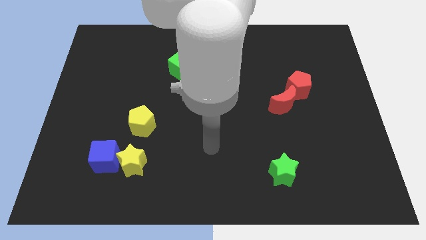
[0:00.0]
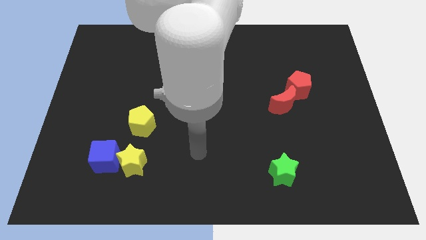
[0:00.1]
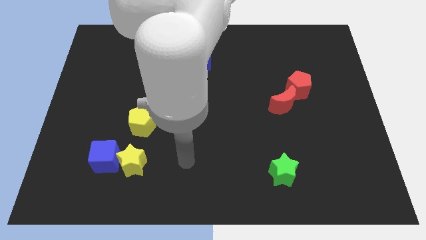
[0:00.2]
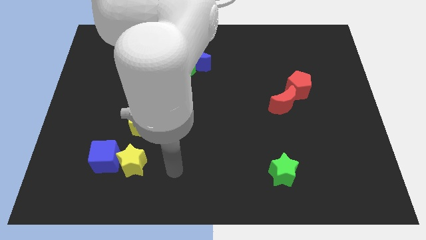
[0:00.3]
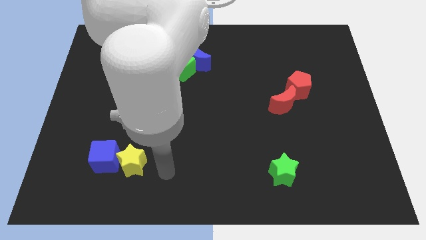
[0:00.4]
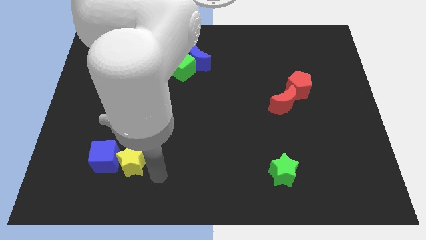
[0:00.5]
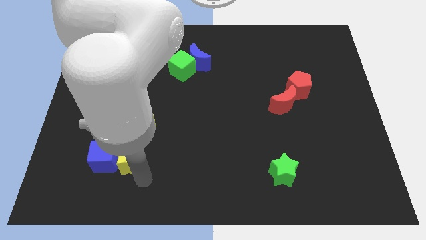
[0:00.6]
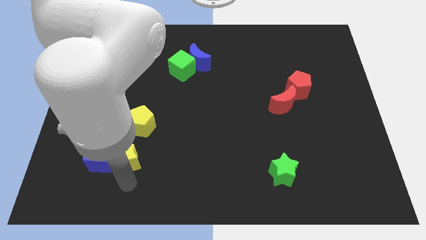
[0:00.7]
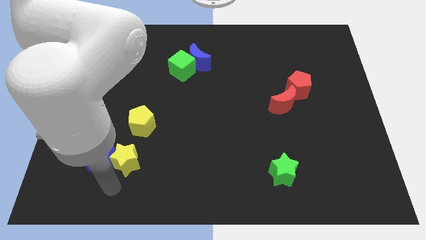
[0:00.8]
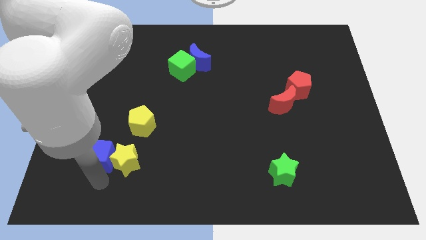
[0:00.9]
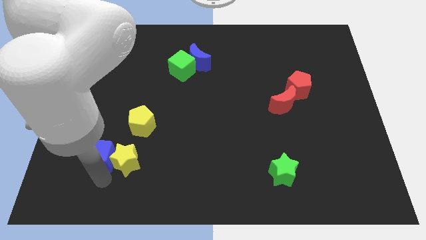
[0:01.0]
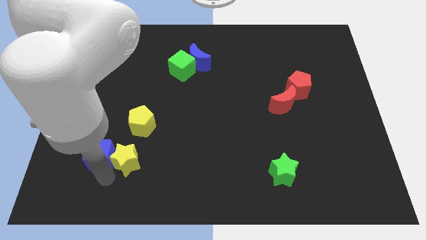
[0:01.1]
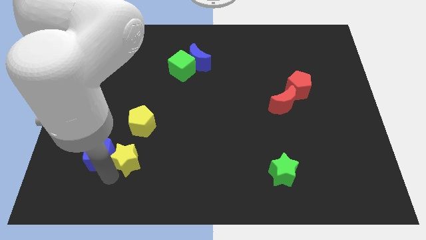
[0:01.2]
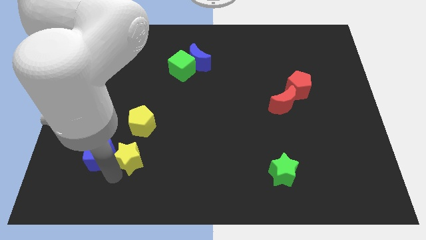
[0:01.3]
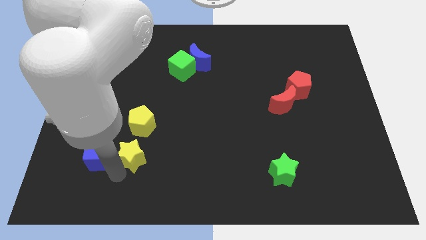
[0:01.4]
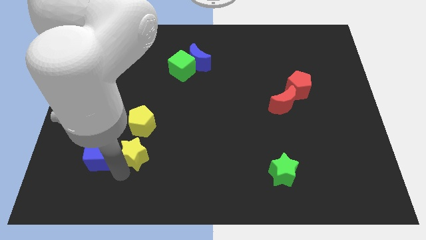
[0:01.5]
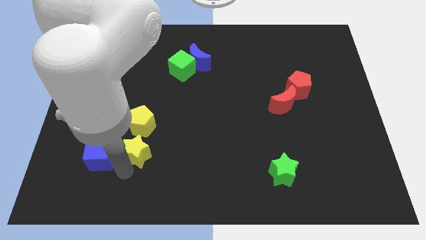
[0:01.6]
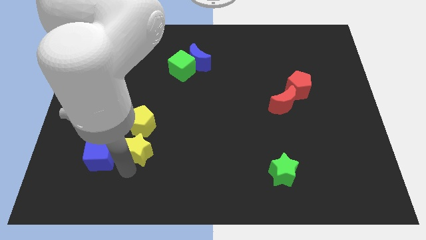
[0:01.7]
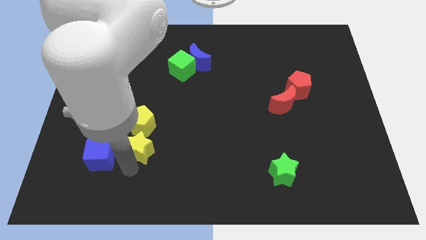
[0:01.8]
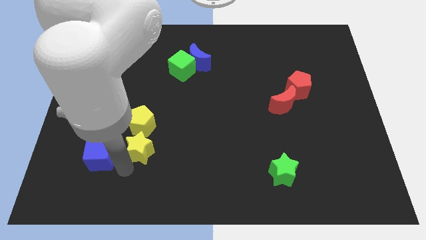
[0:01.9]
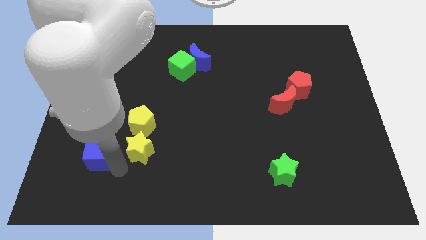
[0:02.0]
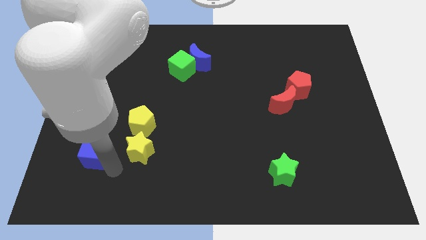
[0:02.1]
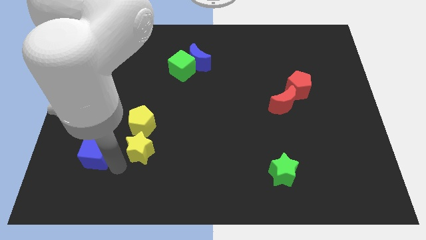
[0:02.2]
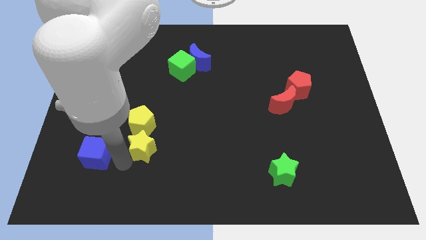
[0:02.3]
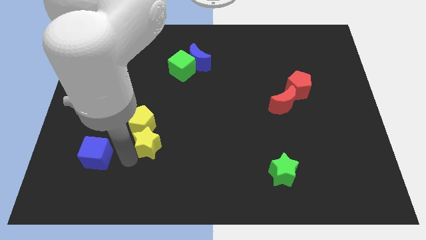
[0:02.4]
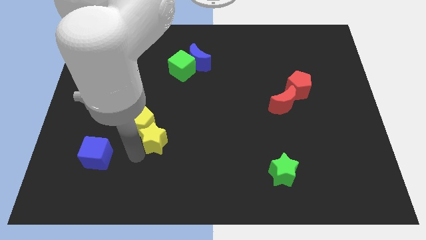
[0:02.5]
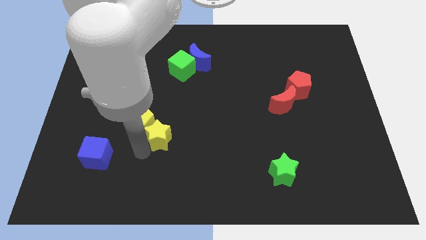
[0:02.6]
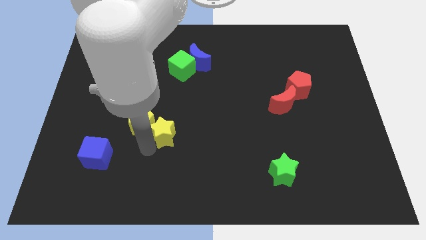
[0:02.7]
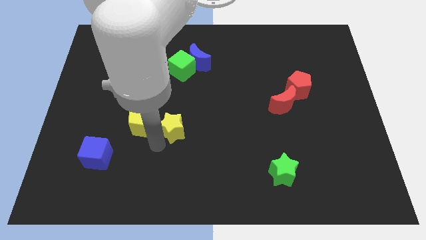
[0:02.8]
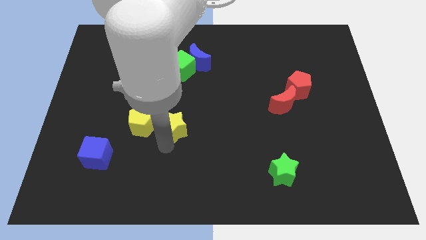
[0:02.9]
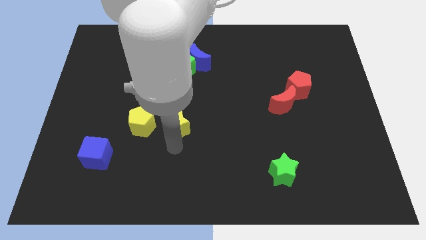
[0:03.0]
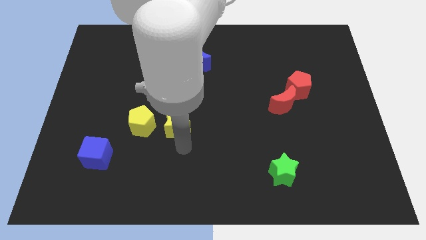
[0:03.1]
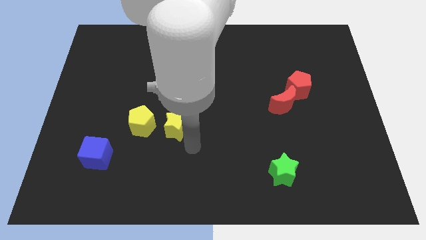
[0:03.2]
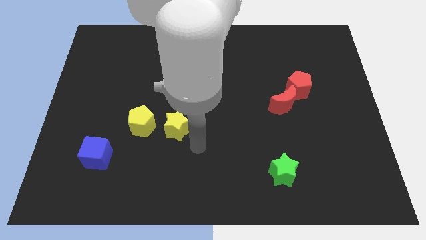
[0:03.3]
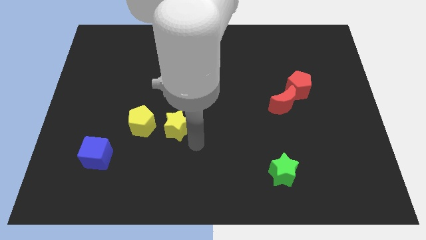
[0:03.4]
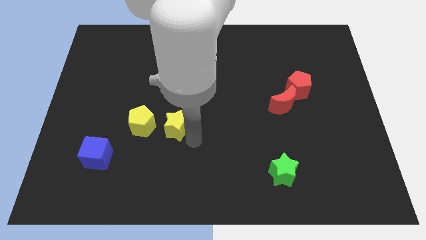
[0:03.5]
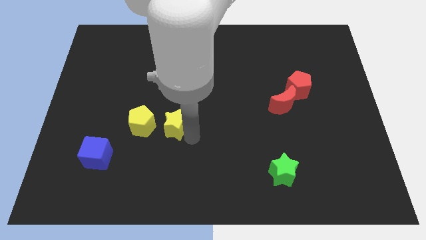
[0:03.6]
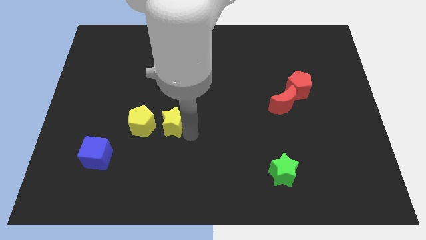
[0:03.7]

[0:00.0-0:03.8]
move the yellow star somewhat up

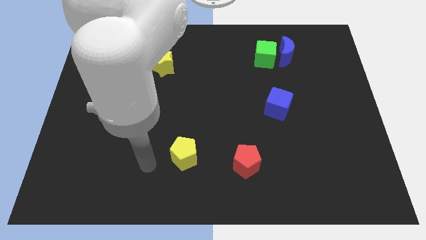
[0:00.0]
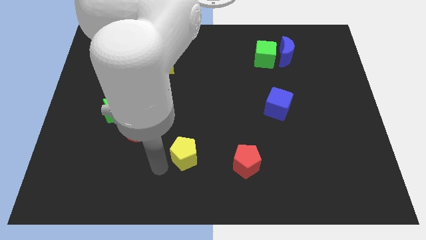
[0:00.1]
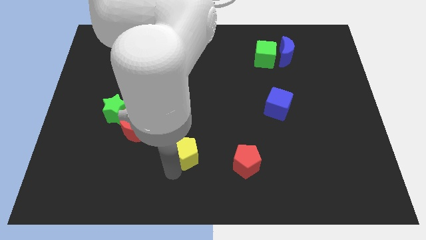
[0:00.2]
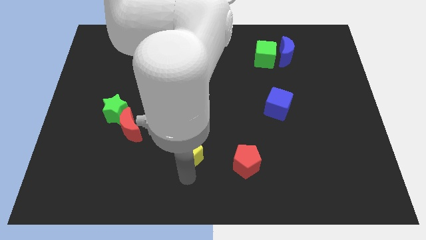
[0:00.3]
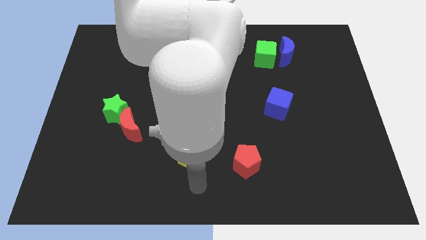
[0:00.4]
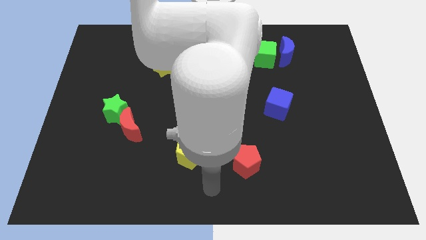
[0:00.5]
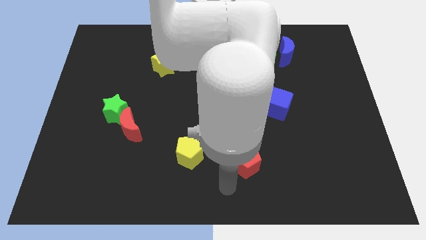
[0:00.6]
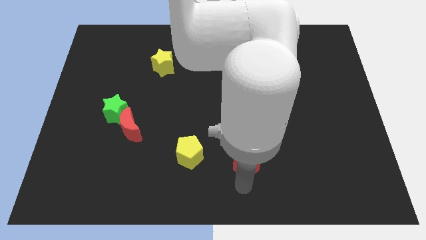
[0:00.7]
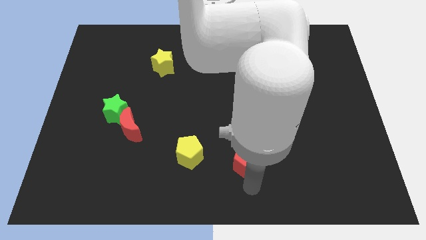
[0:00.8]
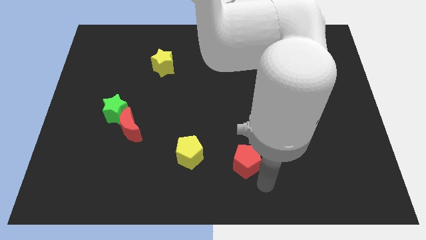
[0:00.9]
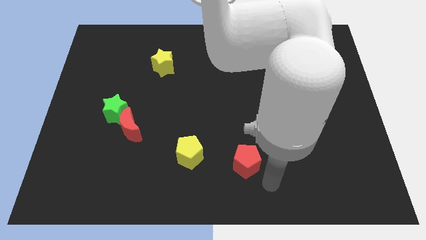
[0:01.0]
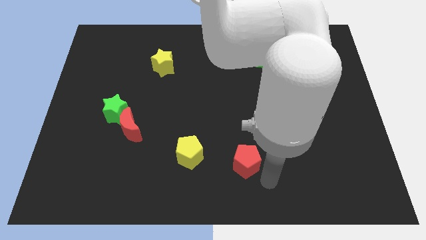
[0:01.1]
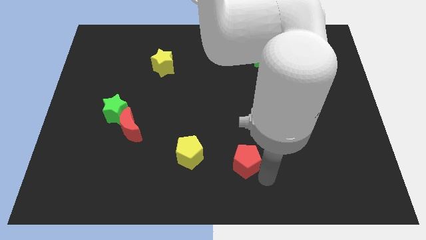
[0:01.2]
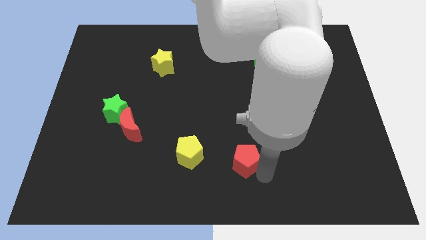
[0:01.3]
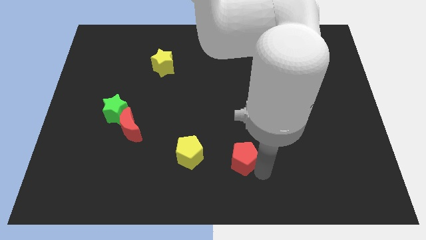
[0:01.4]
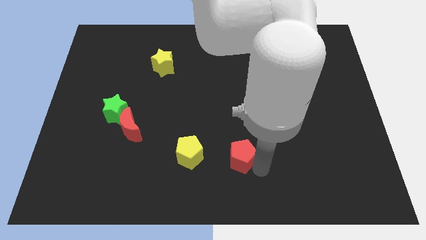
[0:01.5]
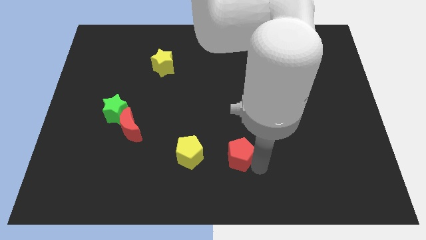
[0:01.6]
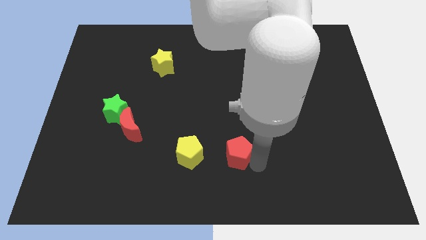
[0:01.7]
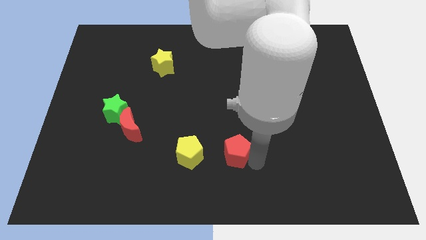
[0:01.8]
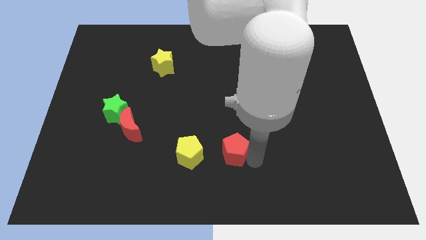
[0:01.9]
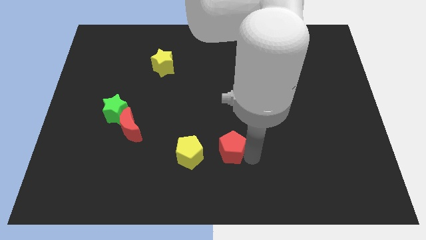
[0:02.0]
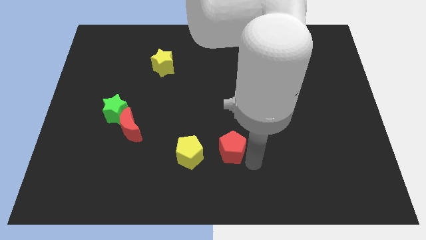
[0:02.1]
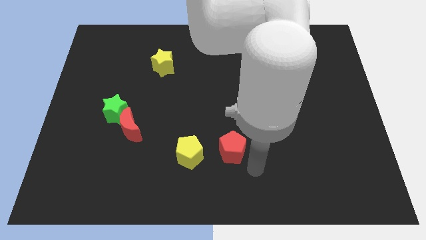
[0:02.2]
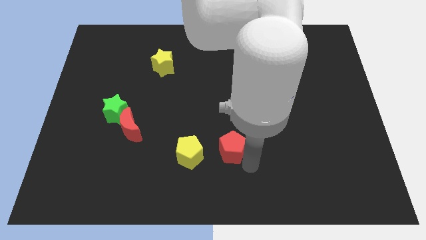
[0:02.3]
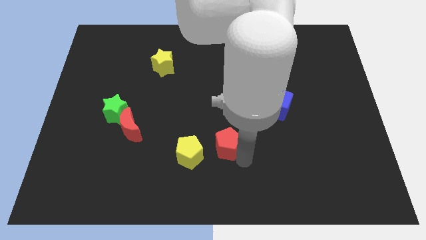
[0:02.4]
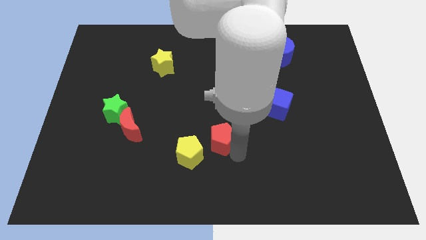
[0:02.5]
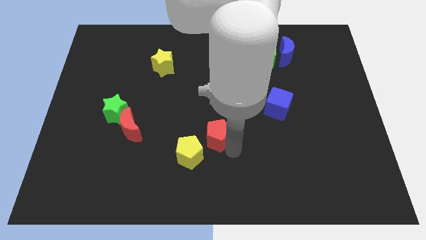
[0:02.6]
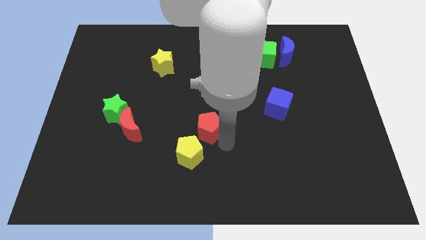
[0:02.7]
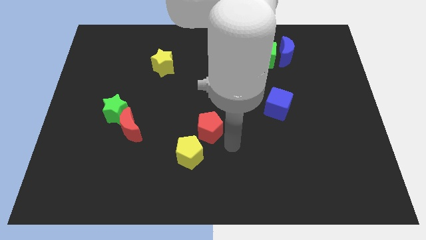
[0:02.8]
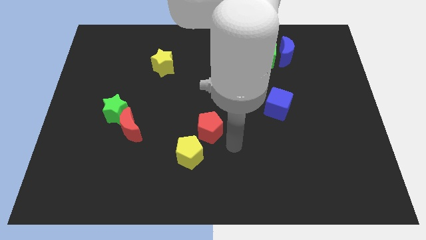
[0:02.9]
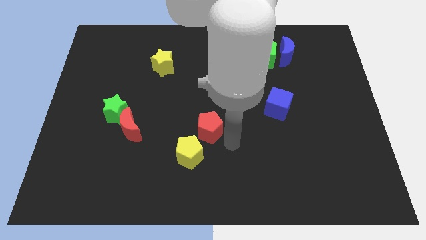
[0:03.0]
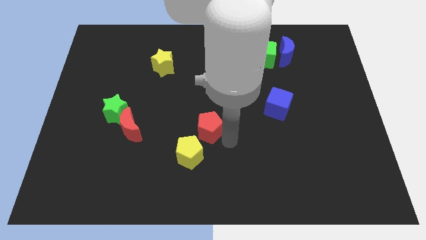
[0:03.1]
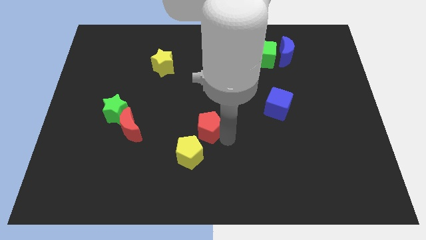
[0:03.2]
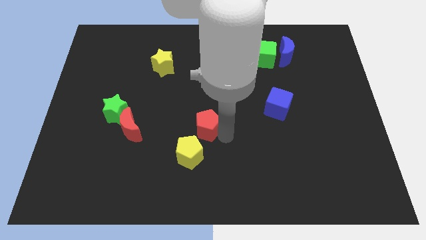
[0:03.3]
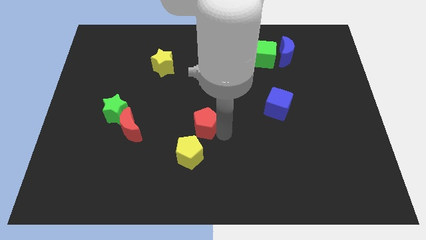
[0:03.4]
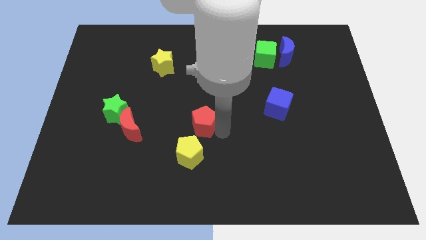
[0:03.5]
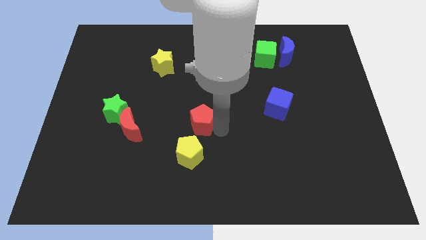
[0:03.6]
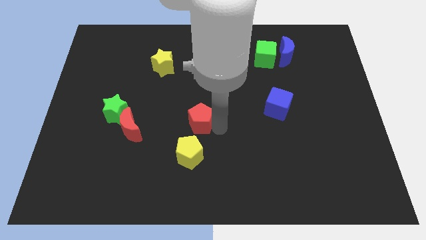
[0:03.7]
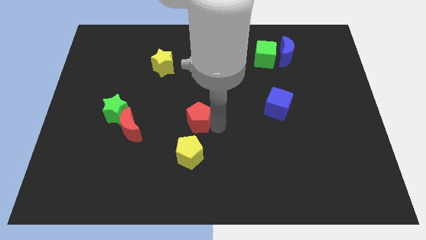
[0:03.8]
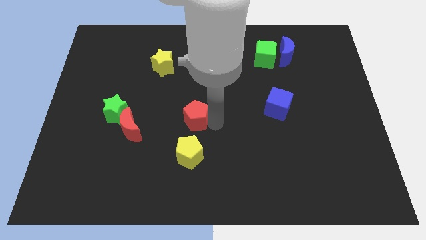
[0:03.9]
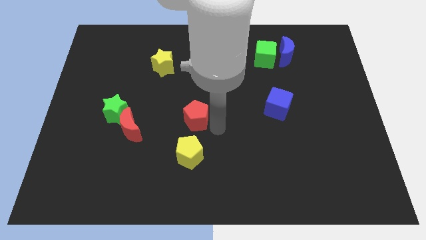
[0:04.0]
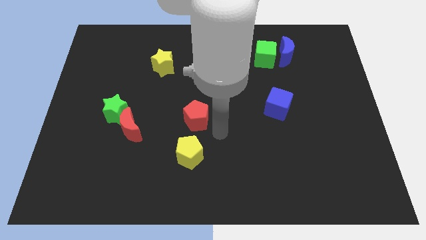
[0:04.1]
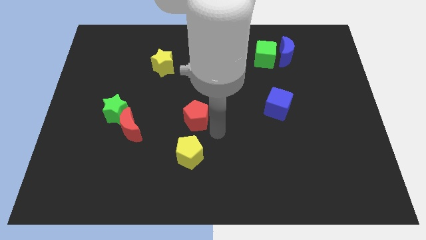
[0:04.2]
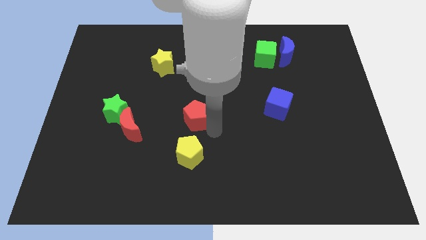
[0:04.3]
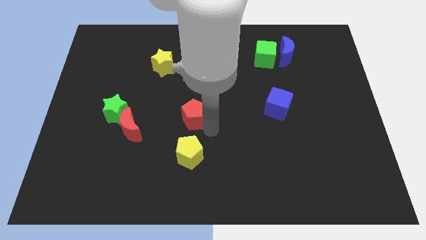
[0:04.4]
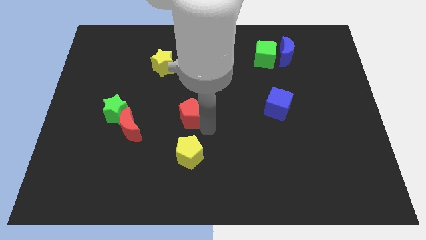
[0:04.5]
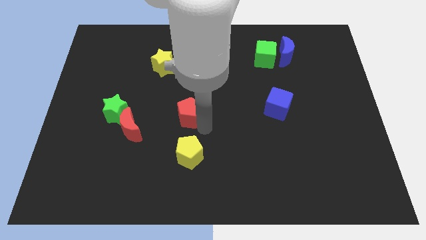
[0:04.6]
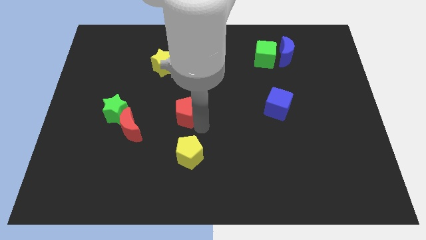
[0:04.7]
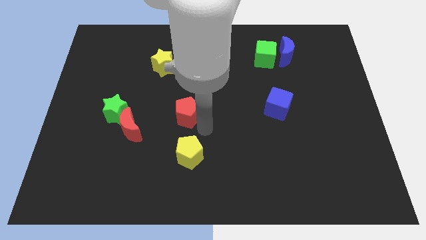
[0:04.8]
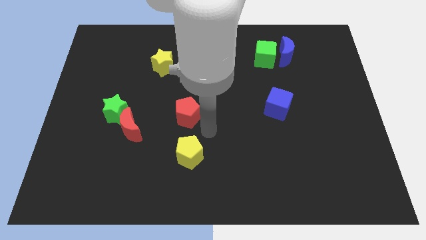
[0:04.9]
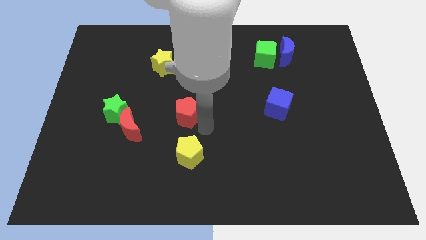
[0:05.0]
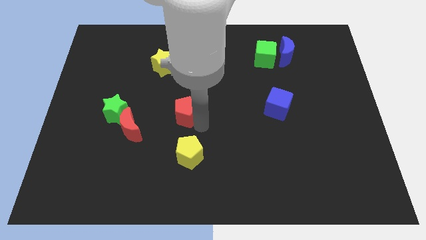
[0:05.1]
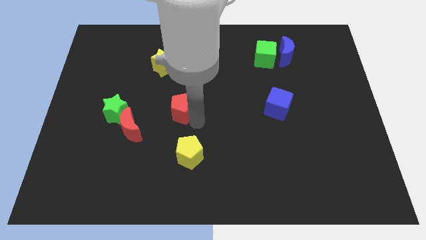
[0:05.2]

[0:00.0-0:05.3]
push the red pentagon upwards and then to the left
